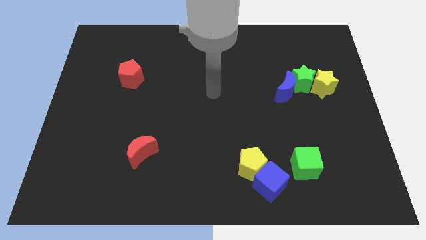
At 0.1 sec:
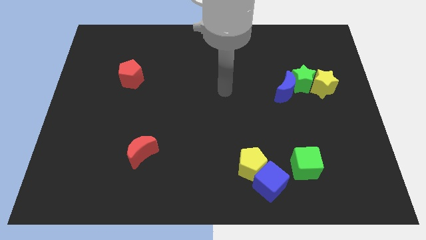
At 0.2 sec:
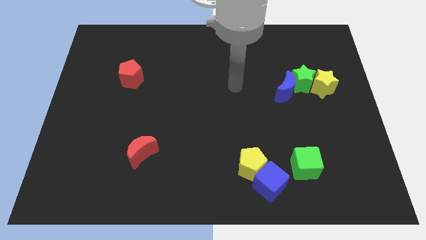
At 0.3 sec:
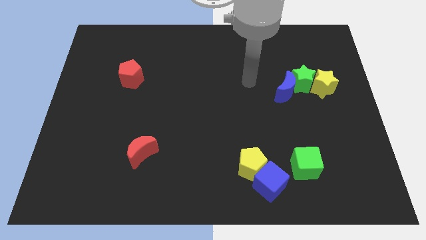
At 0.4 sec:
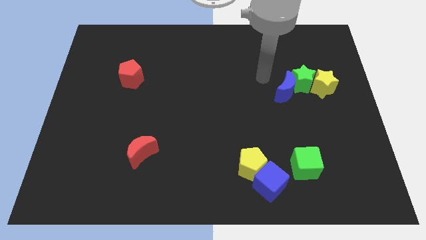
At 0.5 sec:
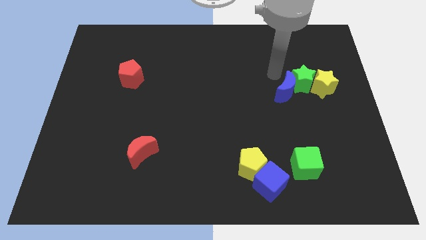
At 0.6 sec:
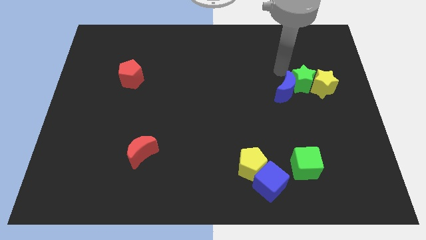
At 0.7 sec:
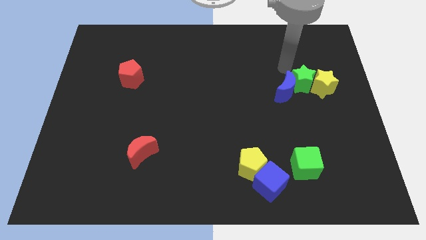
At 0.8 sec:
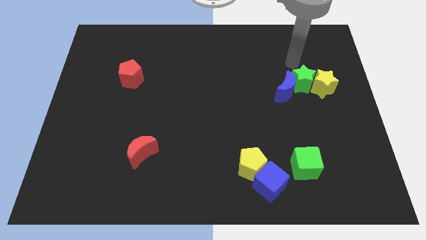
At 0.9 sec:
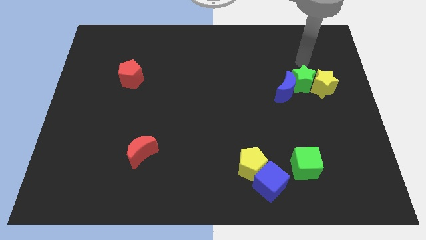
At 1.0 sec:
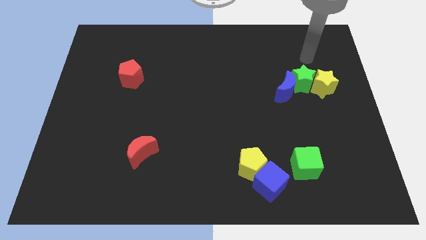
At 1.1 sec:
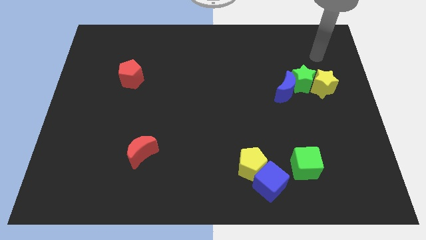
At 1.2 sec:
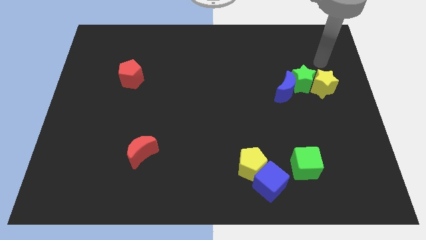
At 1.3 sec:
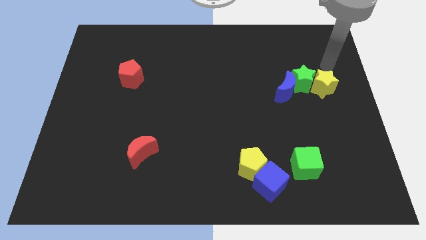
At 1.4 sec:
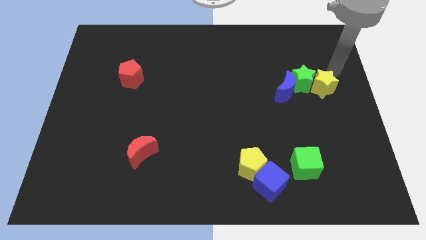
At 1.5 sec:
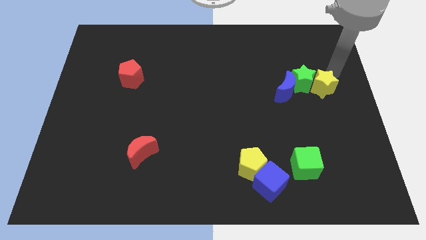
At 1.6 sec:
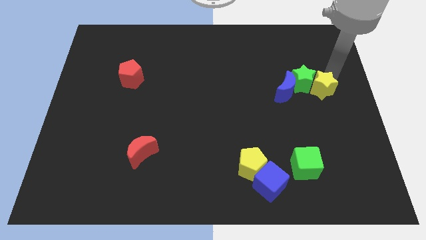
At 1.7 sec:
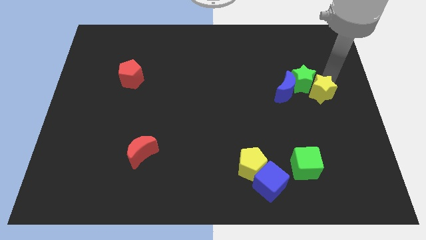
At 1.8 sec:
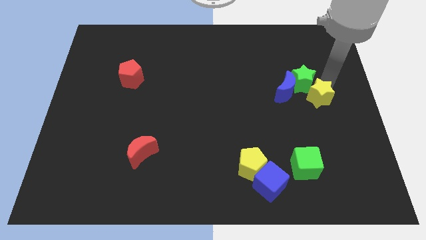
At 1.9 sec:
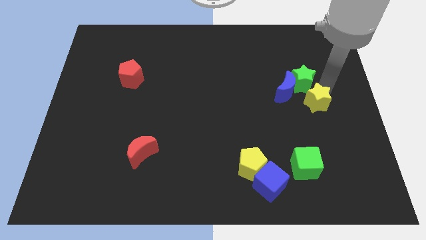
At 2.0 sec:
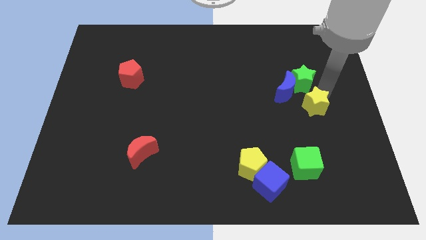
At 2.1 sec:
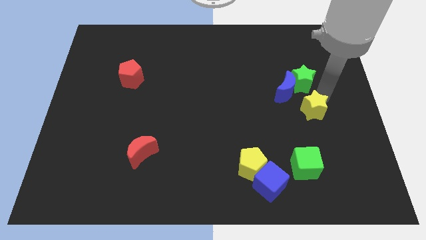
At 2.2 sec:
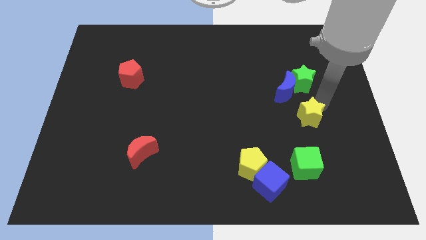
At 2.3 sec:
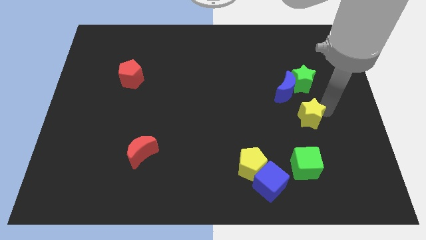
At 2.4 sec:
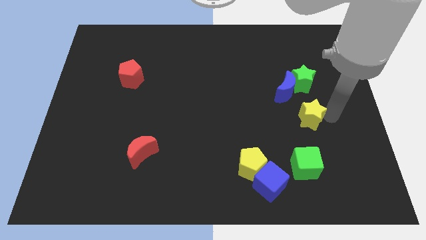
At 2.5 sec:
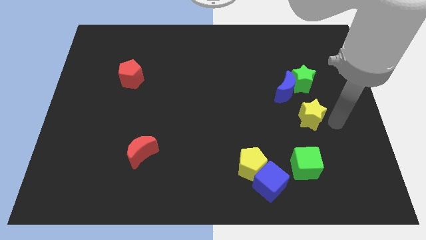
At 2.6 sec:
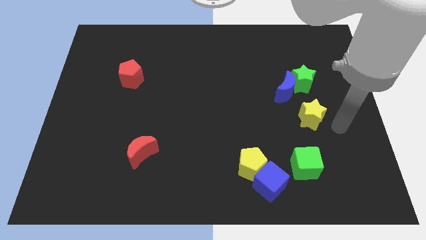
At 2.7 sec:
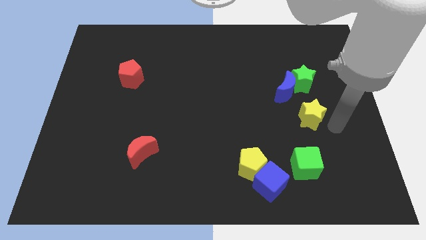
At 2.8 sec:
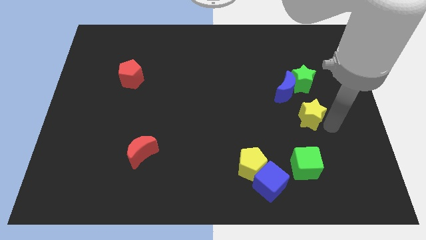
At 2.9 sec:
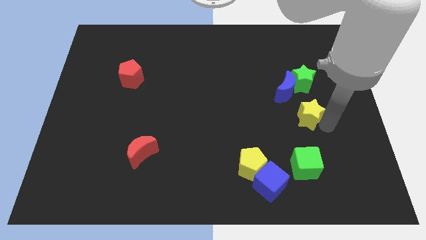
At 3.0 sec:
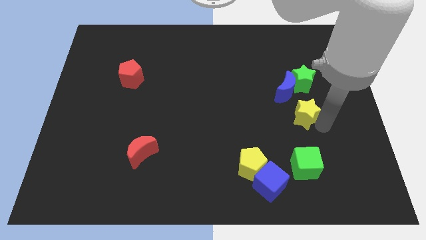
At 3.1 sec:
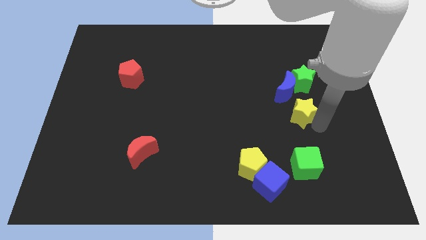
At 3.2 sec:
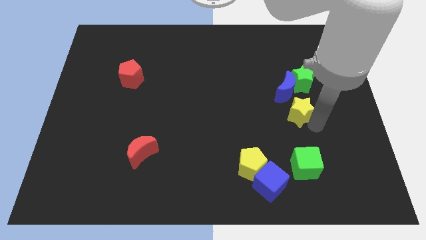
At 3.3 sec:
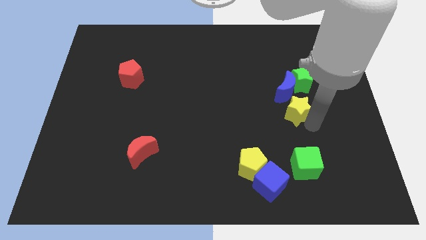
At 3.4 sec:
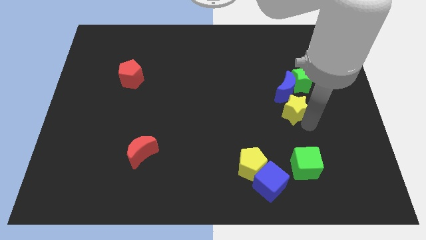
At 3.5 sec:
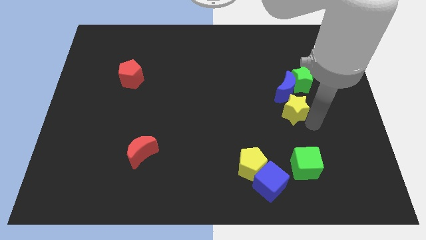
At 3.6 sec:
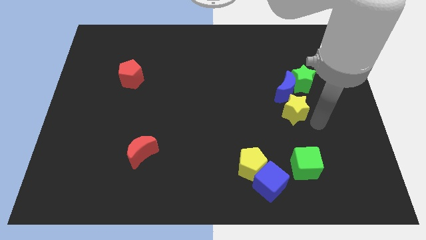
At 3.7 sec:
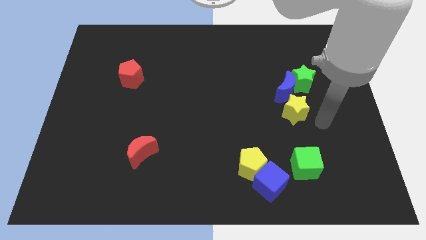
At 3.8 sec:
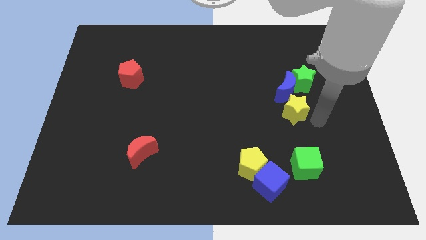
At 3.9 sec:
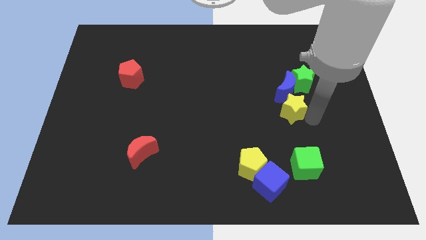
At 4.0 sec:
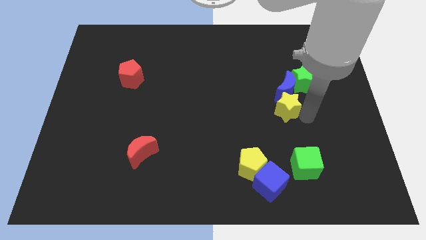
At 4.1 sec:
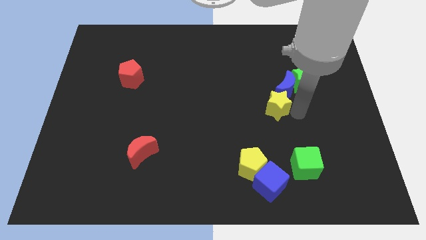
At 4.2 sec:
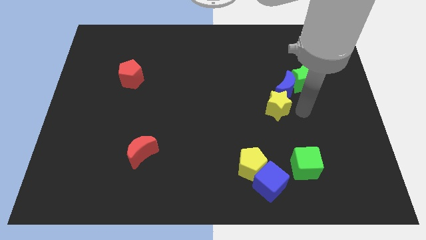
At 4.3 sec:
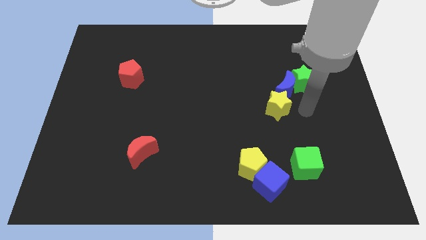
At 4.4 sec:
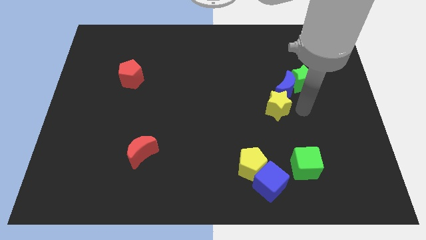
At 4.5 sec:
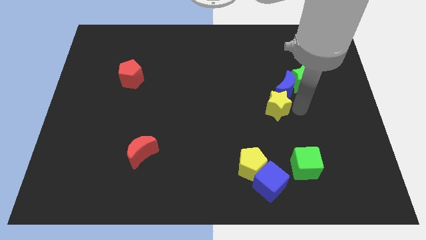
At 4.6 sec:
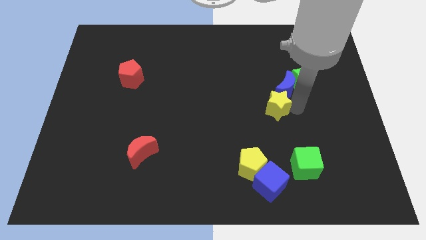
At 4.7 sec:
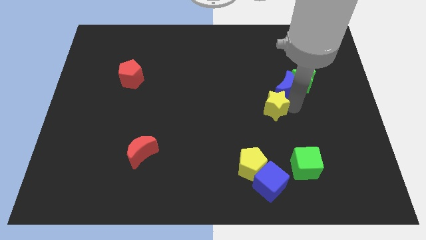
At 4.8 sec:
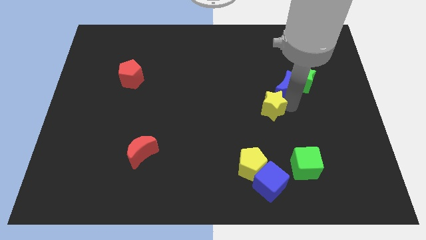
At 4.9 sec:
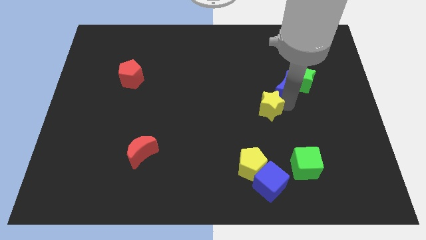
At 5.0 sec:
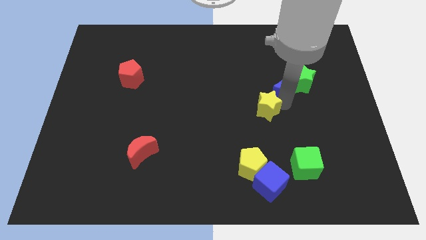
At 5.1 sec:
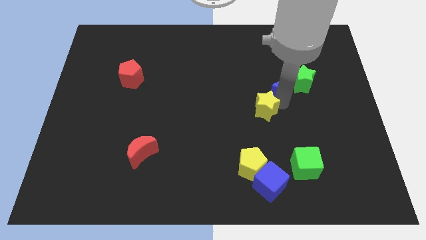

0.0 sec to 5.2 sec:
push the yellow star to the middle of the board
